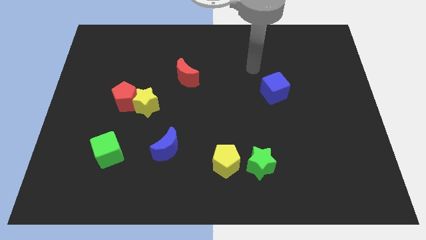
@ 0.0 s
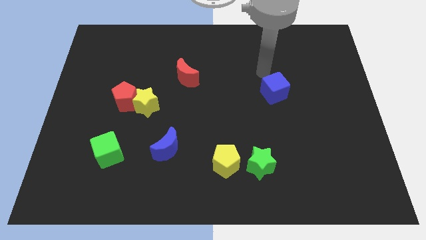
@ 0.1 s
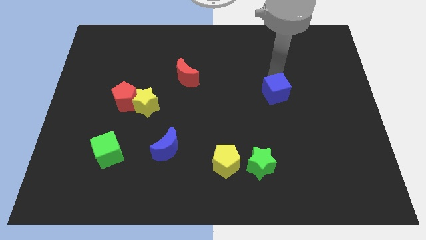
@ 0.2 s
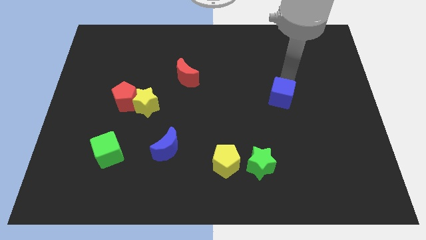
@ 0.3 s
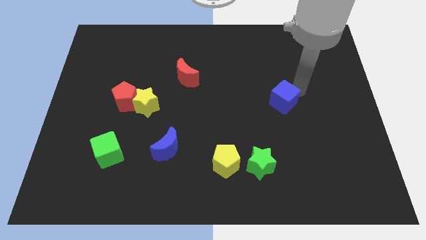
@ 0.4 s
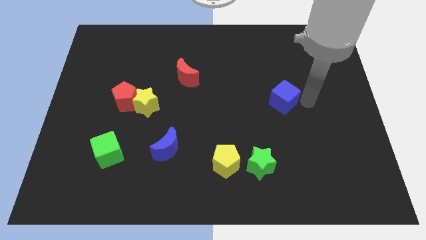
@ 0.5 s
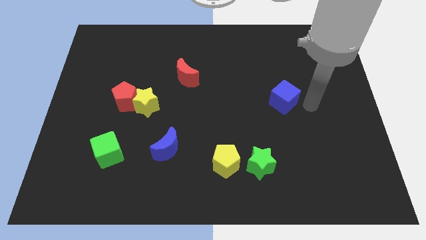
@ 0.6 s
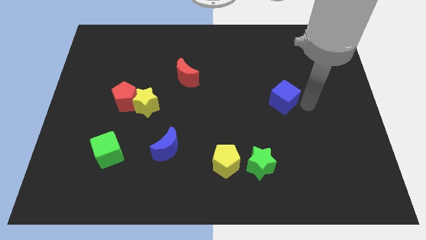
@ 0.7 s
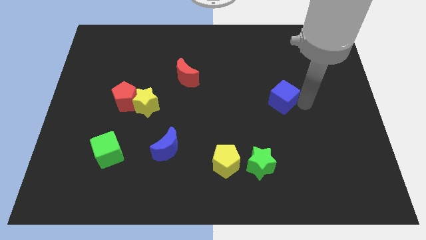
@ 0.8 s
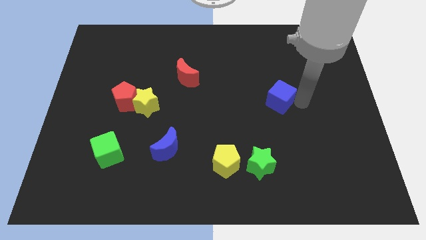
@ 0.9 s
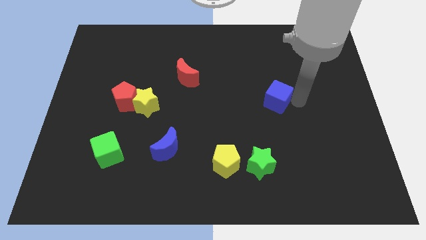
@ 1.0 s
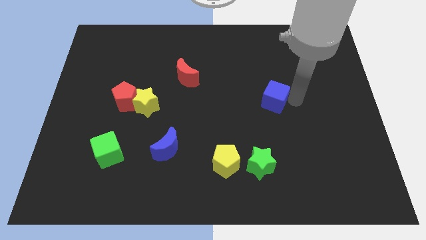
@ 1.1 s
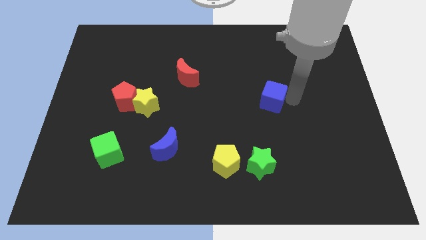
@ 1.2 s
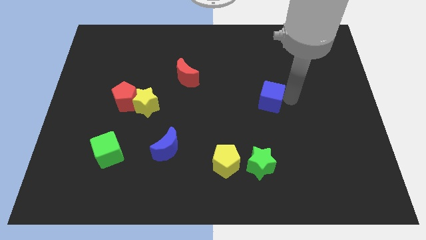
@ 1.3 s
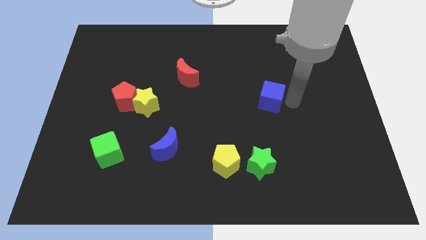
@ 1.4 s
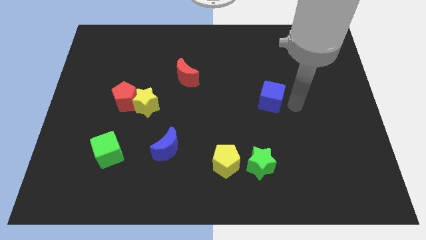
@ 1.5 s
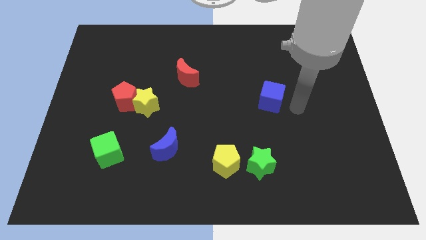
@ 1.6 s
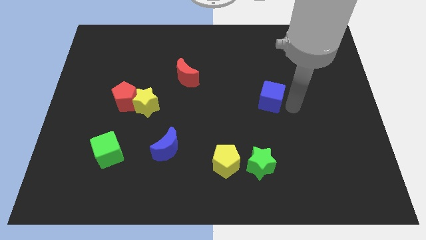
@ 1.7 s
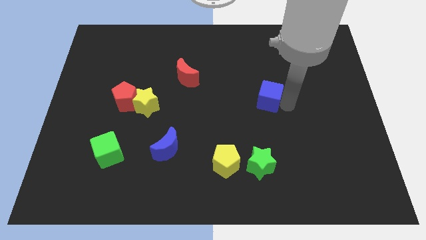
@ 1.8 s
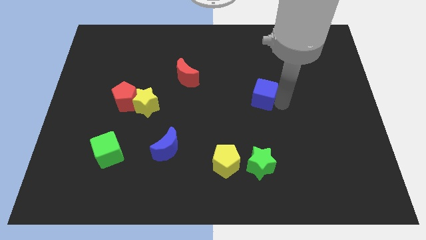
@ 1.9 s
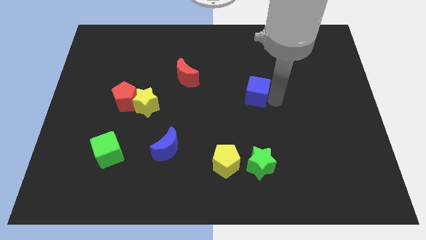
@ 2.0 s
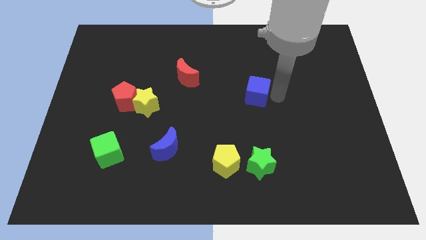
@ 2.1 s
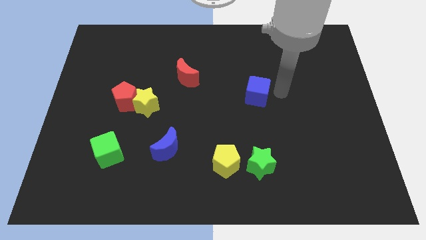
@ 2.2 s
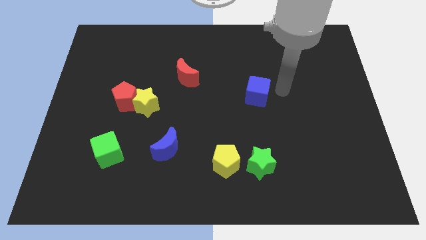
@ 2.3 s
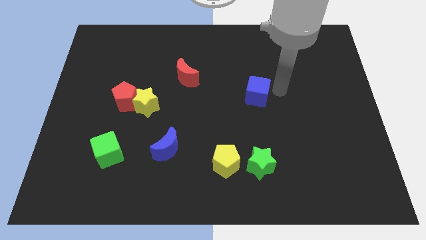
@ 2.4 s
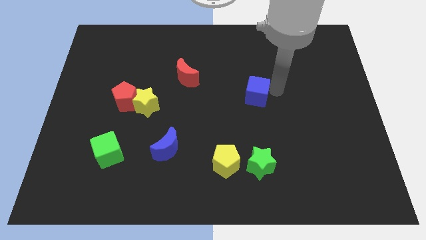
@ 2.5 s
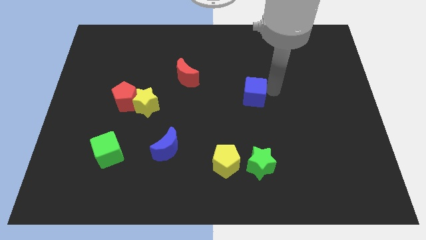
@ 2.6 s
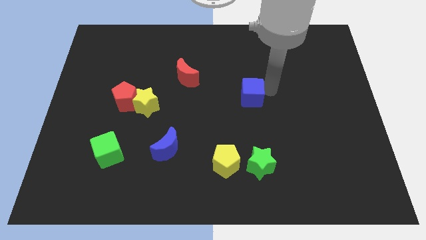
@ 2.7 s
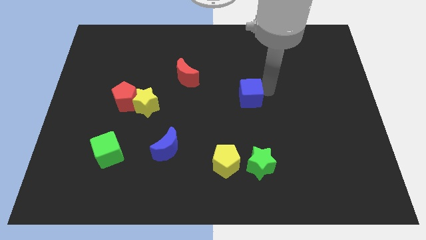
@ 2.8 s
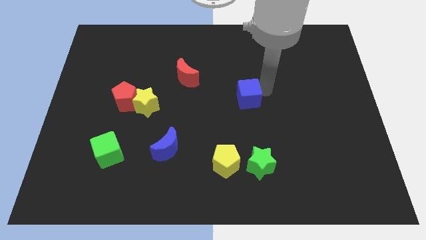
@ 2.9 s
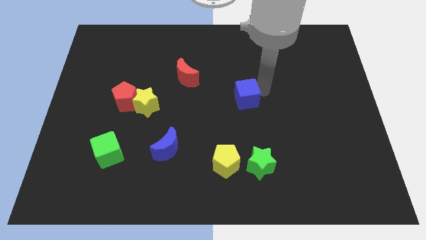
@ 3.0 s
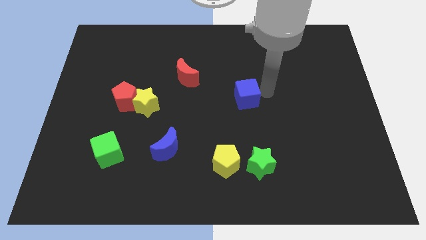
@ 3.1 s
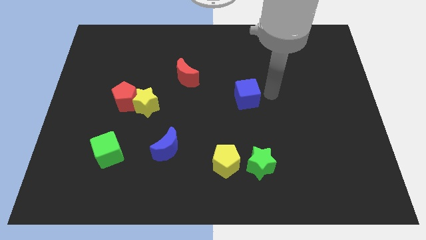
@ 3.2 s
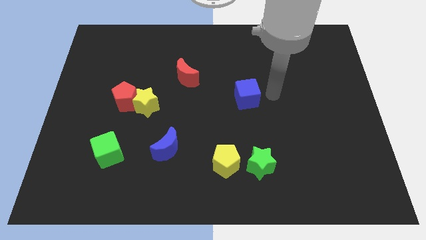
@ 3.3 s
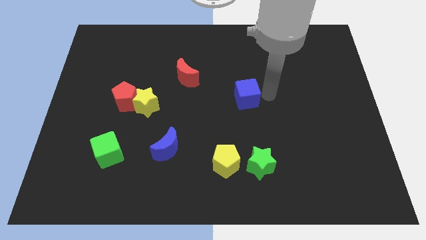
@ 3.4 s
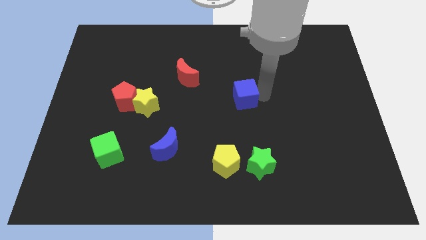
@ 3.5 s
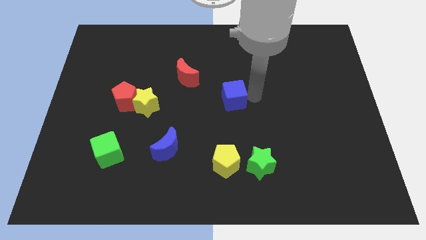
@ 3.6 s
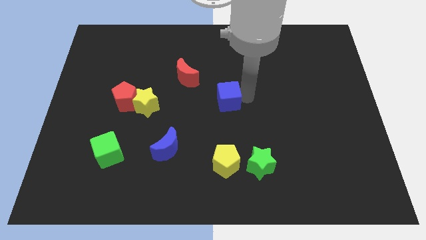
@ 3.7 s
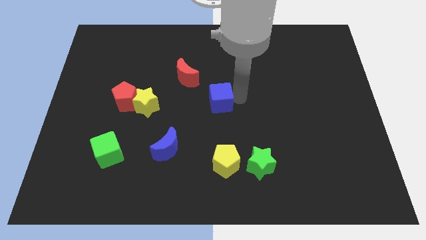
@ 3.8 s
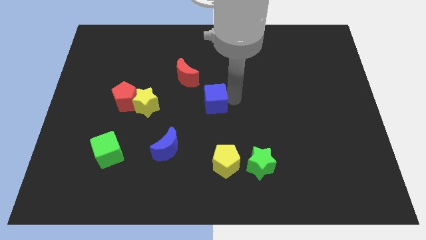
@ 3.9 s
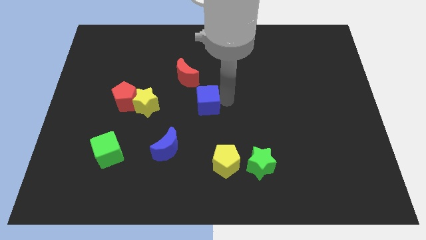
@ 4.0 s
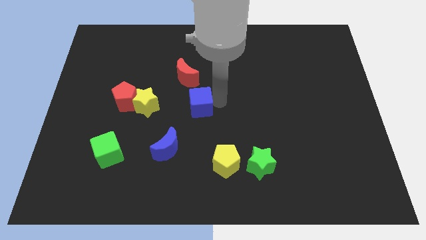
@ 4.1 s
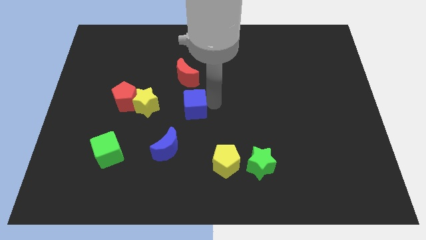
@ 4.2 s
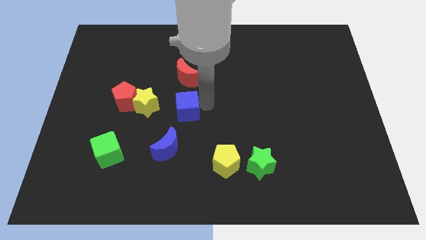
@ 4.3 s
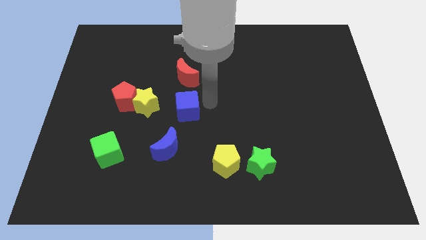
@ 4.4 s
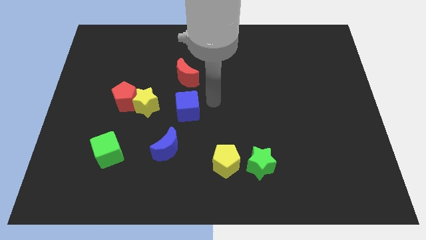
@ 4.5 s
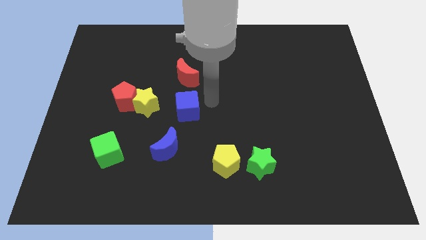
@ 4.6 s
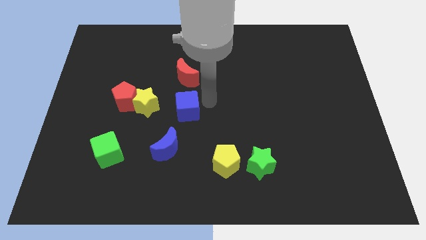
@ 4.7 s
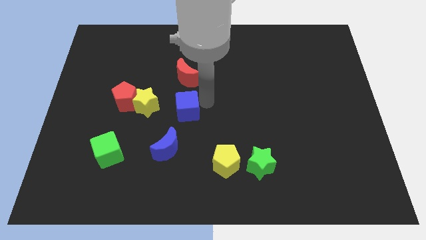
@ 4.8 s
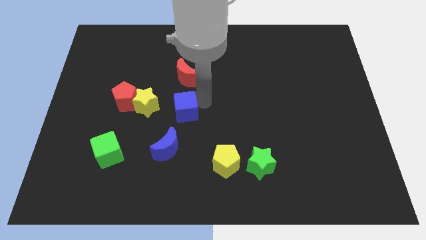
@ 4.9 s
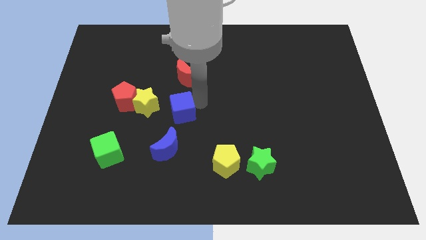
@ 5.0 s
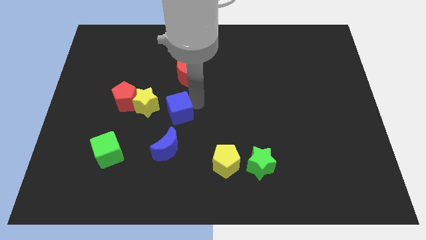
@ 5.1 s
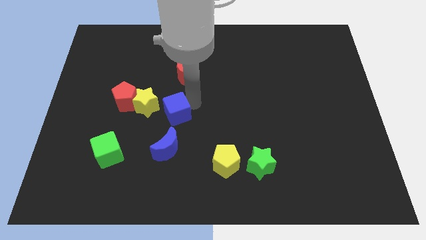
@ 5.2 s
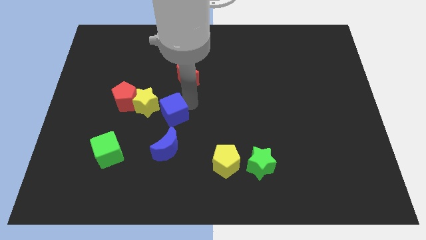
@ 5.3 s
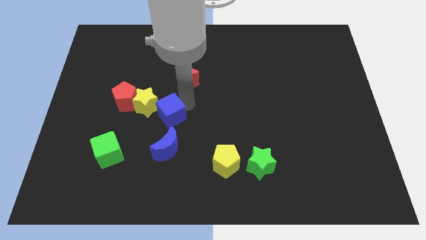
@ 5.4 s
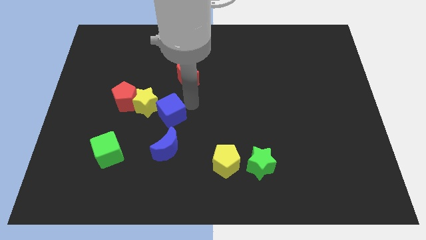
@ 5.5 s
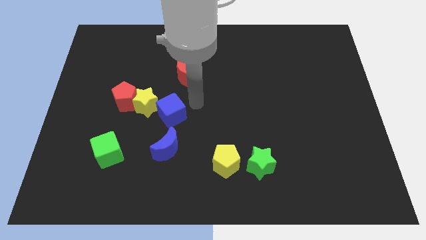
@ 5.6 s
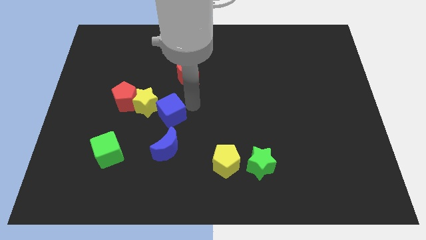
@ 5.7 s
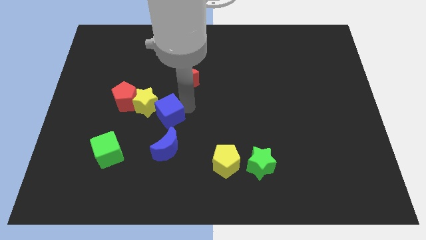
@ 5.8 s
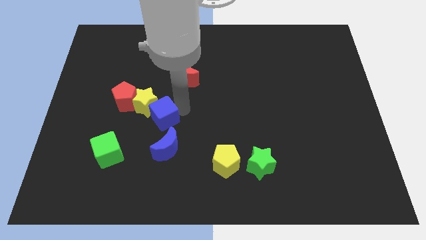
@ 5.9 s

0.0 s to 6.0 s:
move the blue cube to the bottom right of the red pentagon

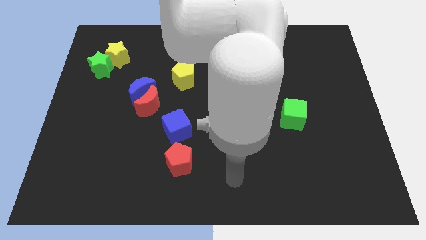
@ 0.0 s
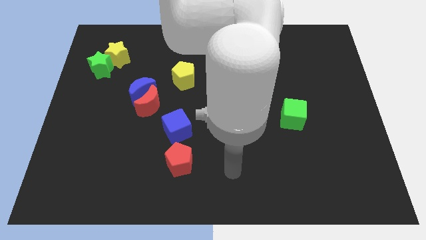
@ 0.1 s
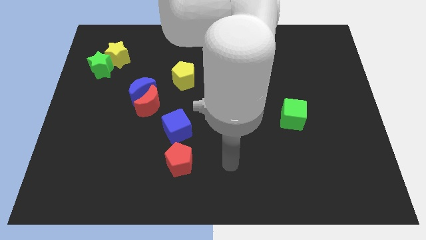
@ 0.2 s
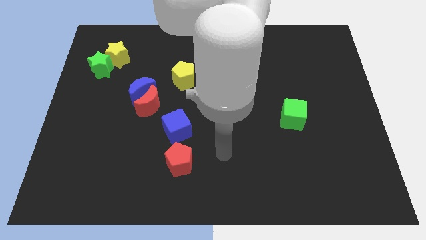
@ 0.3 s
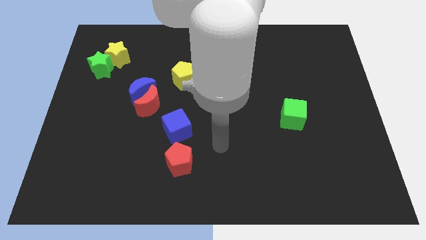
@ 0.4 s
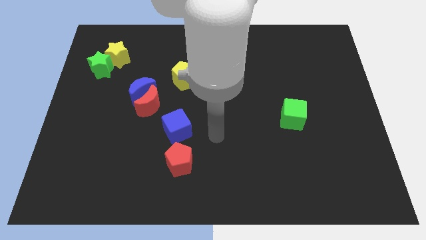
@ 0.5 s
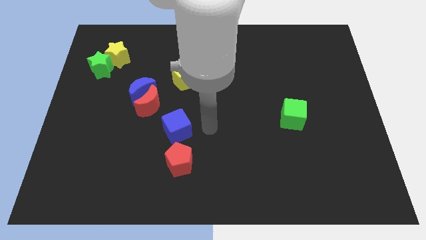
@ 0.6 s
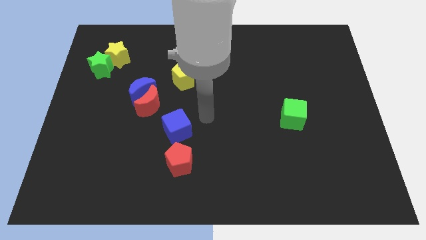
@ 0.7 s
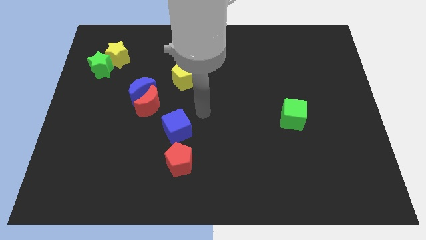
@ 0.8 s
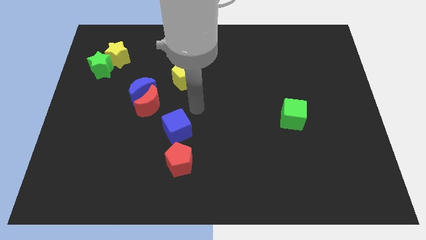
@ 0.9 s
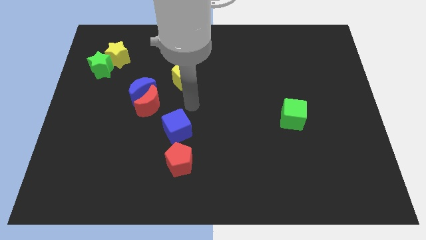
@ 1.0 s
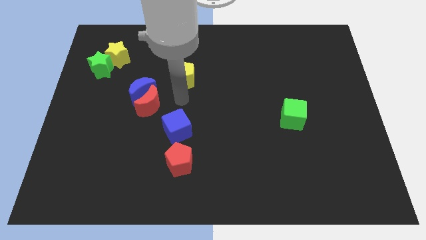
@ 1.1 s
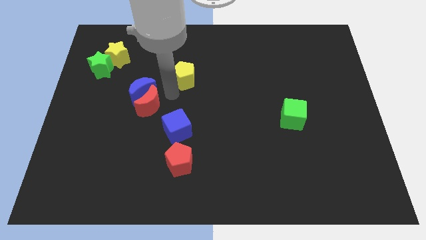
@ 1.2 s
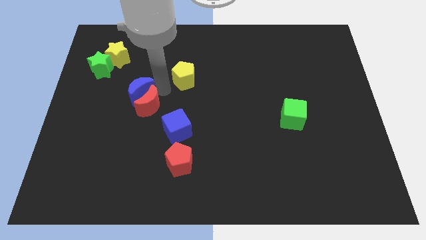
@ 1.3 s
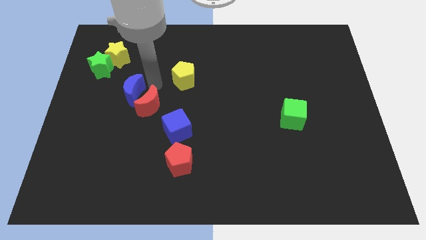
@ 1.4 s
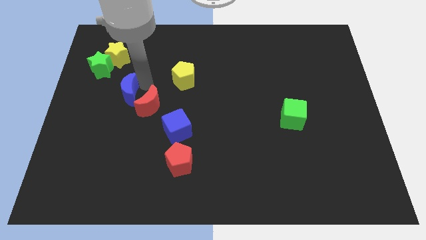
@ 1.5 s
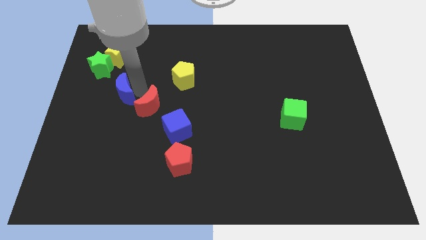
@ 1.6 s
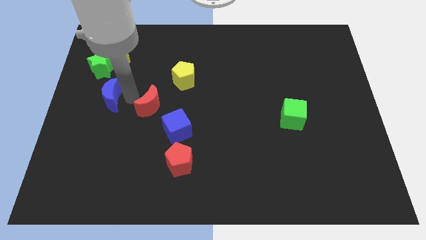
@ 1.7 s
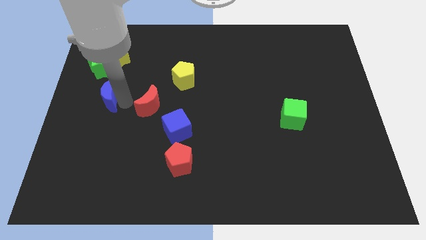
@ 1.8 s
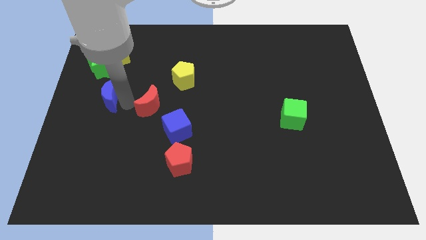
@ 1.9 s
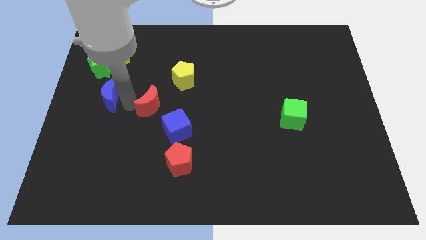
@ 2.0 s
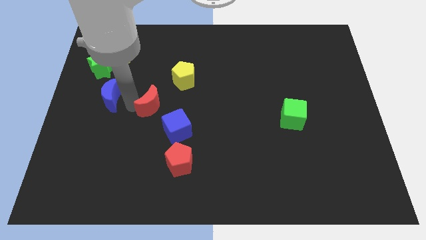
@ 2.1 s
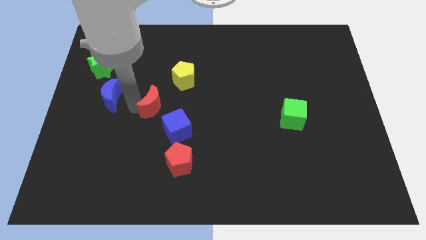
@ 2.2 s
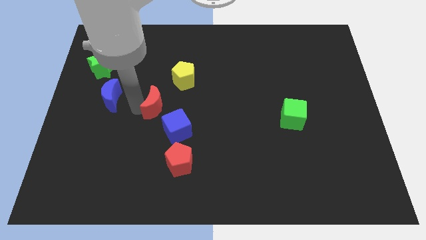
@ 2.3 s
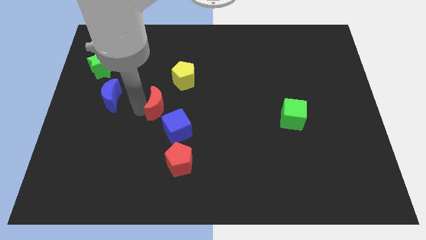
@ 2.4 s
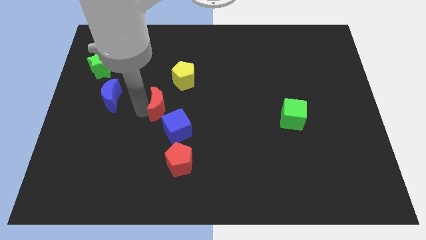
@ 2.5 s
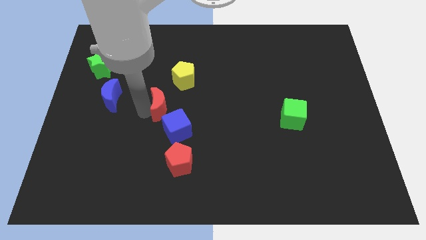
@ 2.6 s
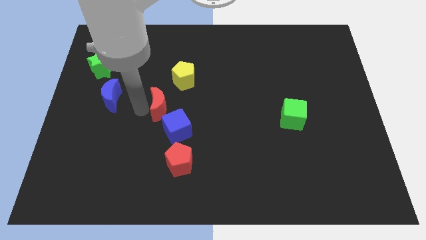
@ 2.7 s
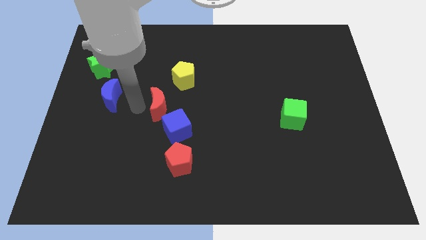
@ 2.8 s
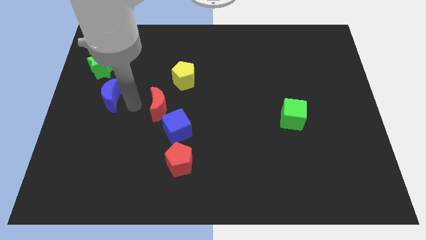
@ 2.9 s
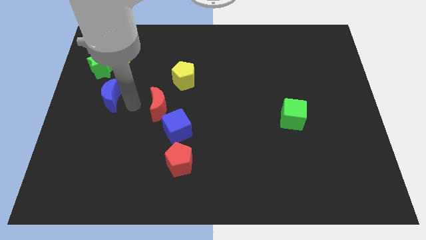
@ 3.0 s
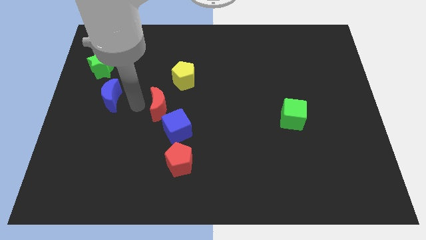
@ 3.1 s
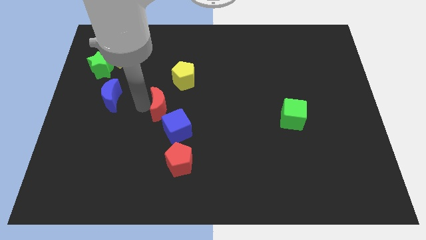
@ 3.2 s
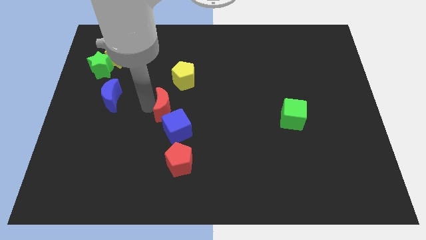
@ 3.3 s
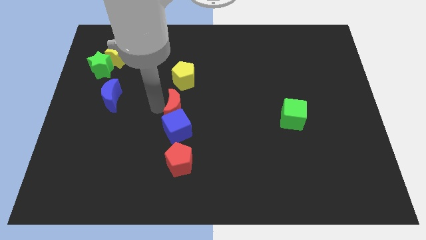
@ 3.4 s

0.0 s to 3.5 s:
put the red moon diagonally up and to the right of the blue cube
